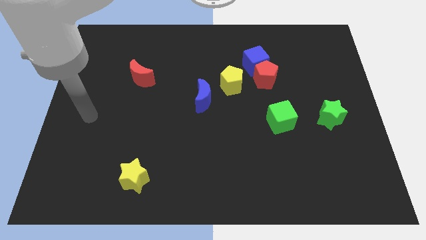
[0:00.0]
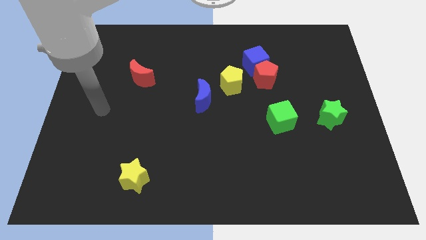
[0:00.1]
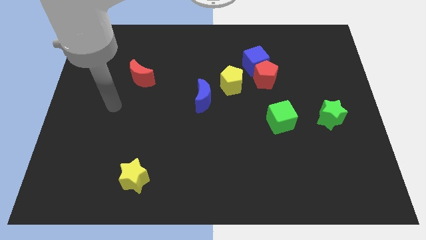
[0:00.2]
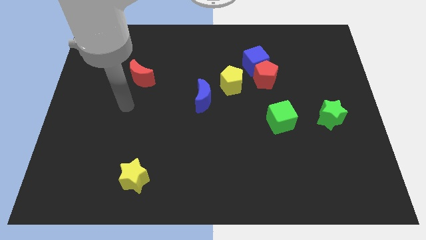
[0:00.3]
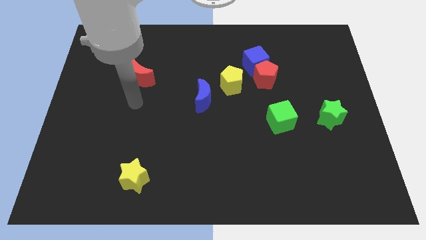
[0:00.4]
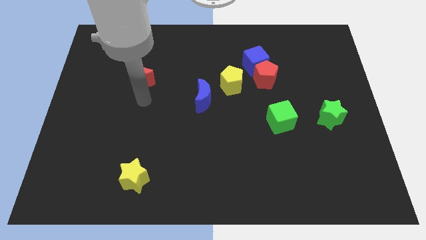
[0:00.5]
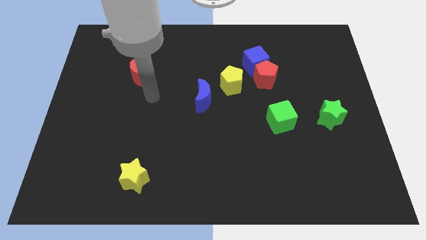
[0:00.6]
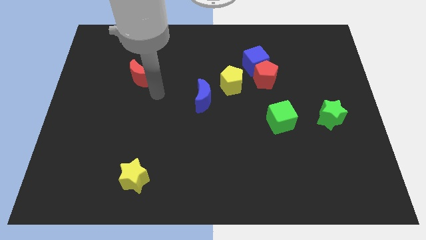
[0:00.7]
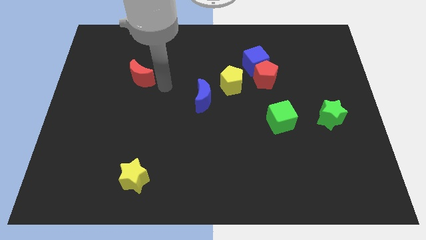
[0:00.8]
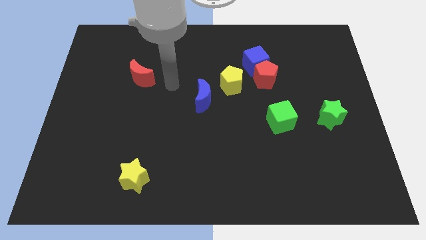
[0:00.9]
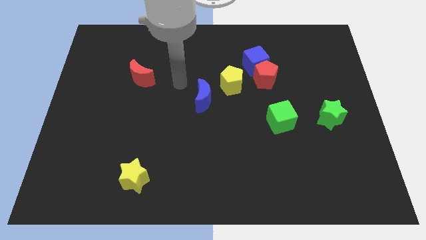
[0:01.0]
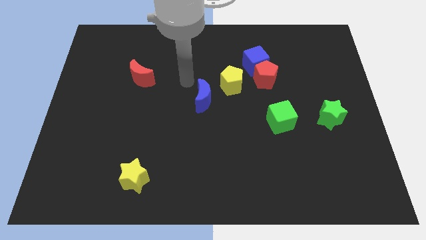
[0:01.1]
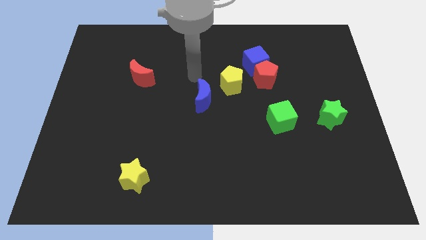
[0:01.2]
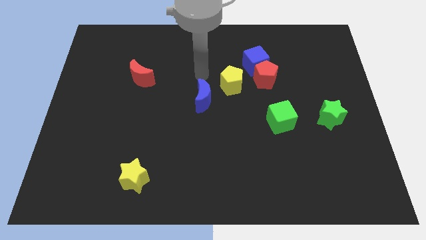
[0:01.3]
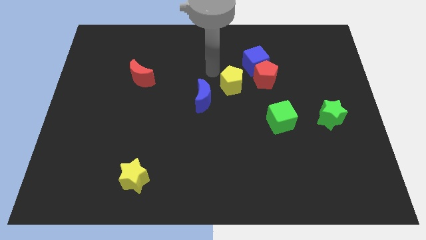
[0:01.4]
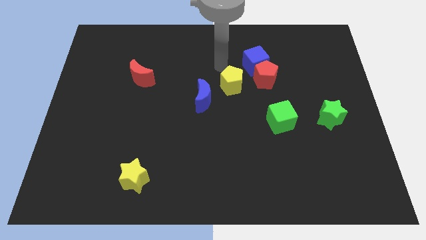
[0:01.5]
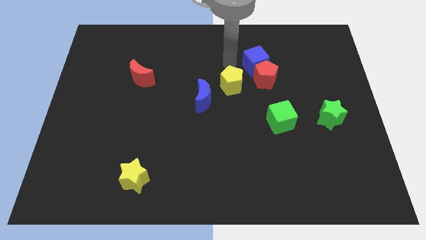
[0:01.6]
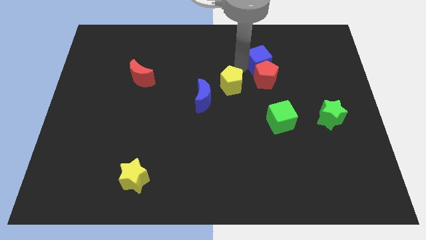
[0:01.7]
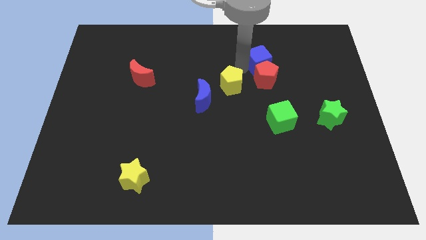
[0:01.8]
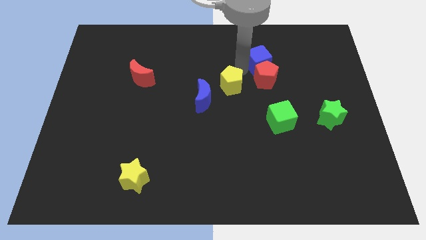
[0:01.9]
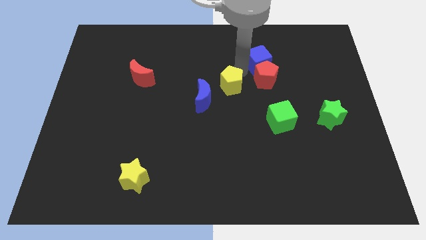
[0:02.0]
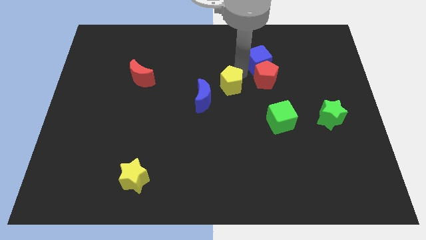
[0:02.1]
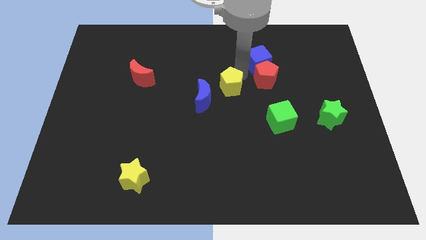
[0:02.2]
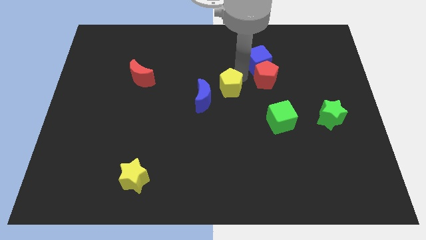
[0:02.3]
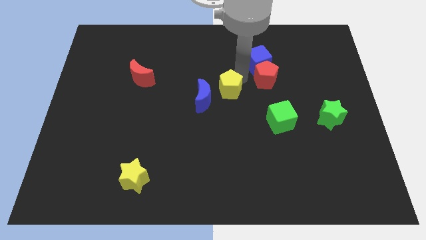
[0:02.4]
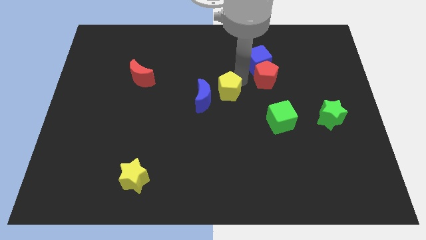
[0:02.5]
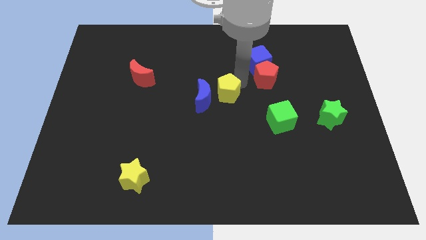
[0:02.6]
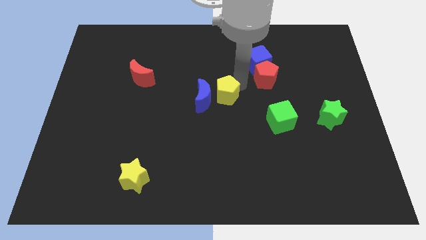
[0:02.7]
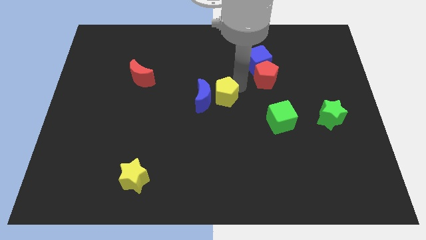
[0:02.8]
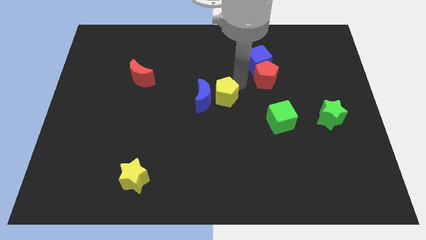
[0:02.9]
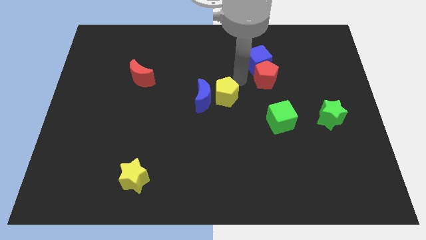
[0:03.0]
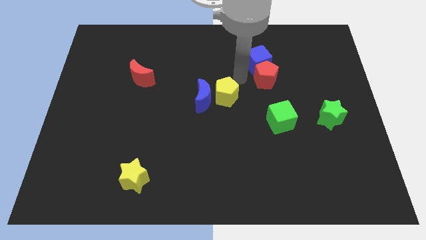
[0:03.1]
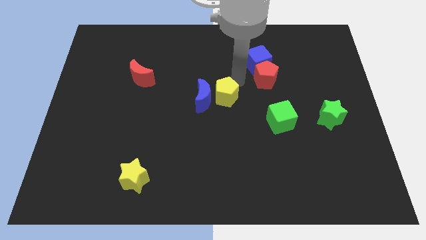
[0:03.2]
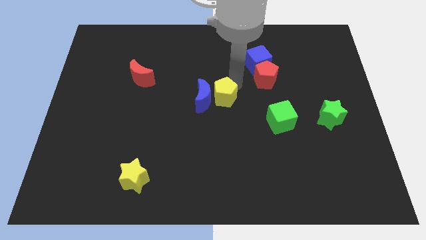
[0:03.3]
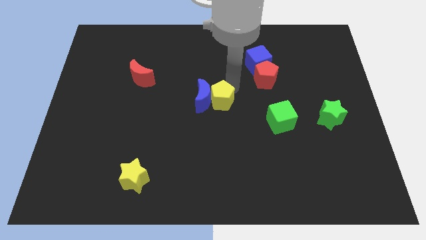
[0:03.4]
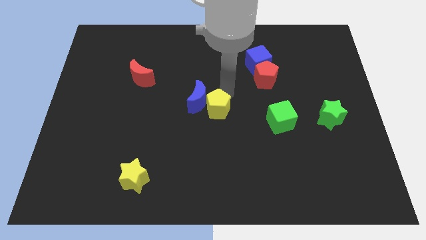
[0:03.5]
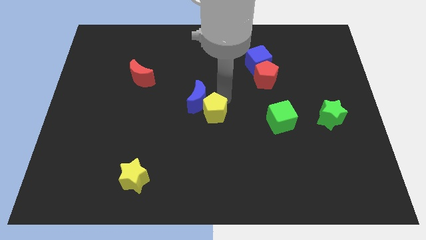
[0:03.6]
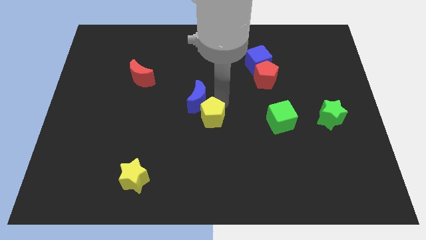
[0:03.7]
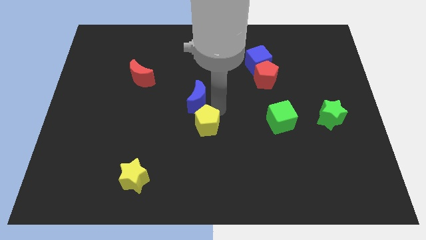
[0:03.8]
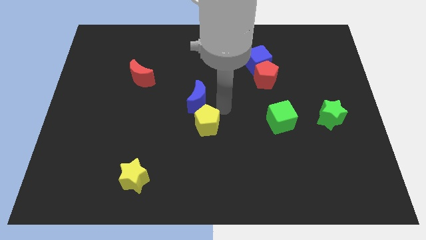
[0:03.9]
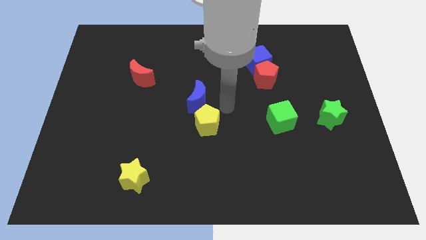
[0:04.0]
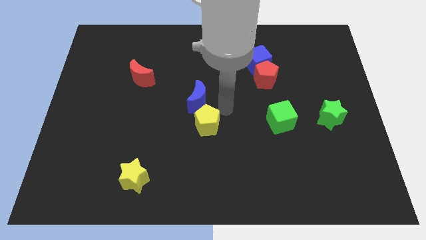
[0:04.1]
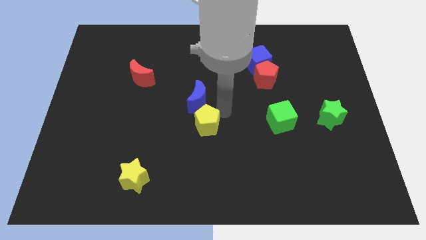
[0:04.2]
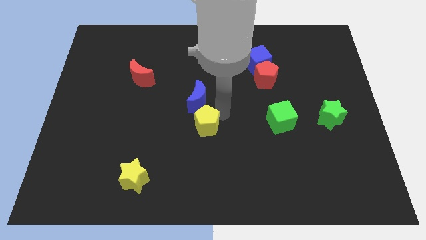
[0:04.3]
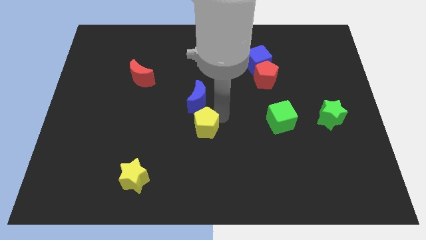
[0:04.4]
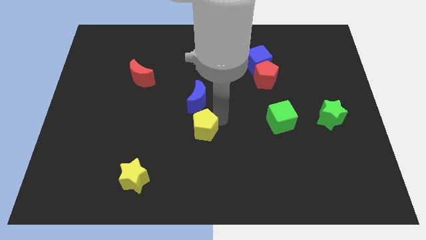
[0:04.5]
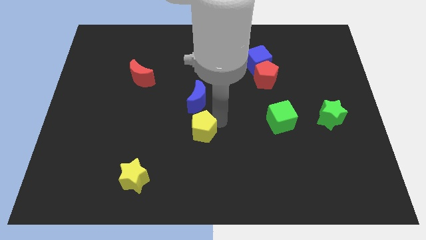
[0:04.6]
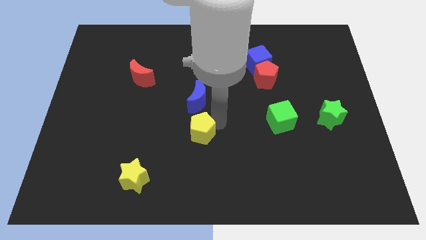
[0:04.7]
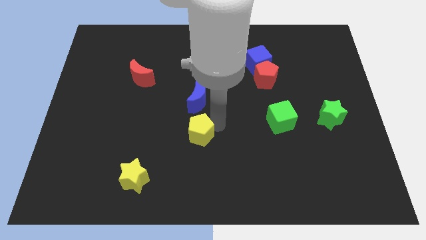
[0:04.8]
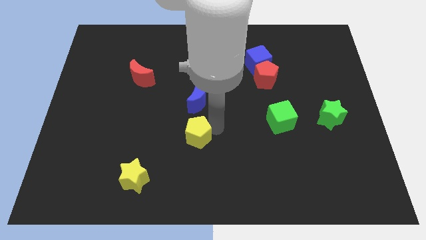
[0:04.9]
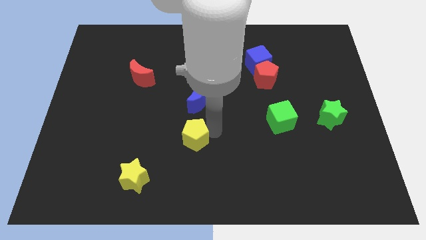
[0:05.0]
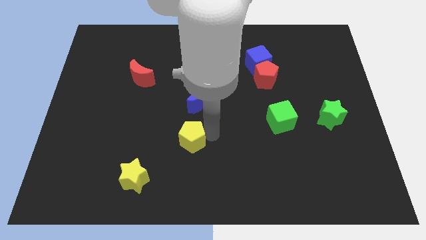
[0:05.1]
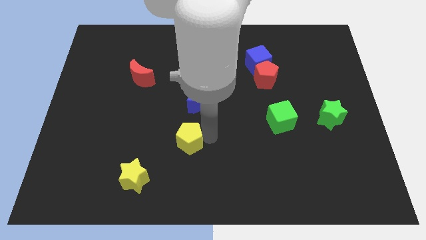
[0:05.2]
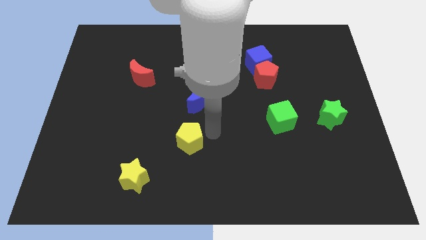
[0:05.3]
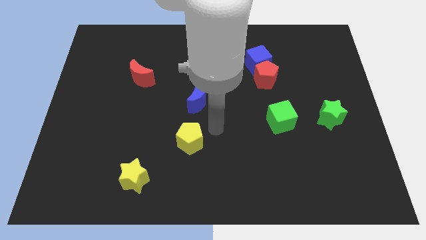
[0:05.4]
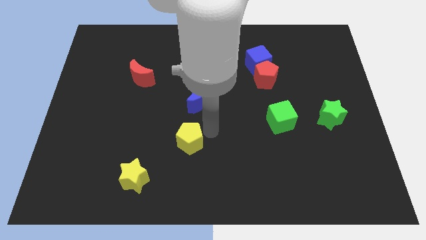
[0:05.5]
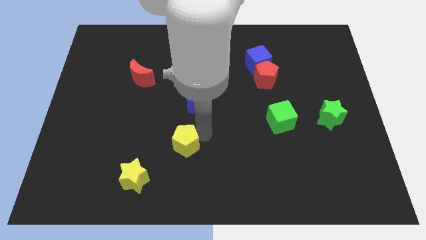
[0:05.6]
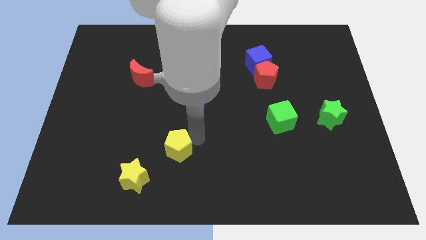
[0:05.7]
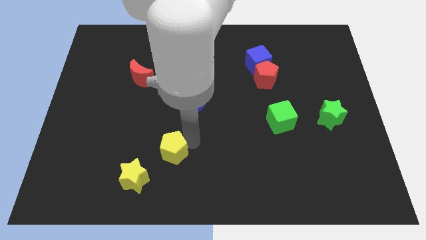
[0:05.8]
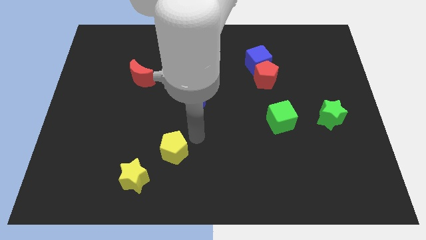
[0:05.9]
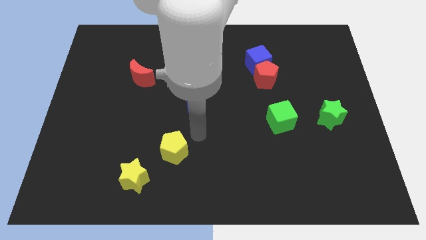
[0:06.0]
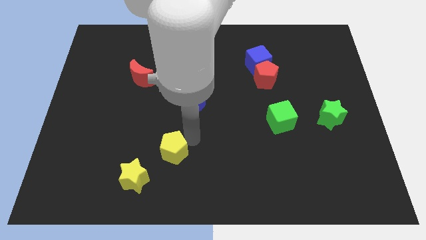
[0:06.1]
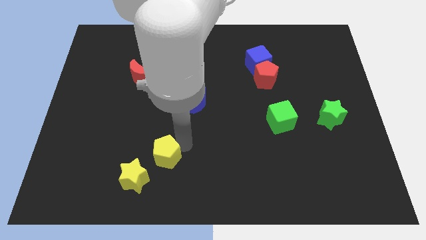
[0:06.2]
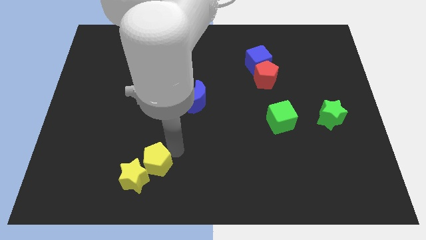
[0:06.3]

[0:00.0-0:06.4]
push the yellow pentagon next to the yellow star

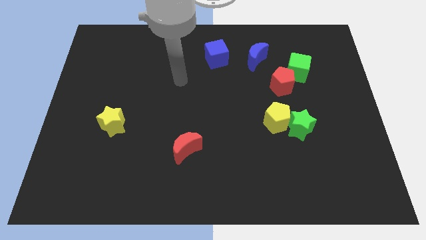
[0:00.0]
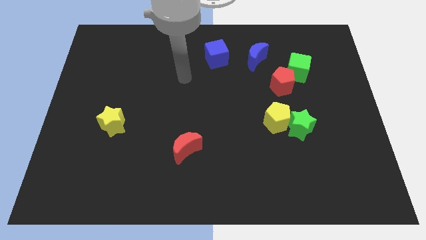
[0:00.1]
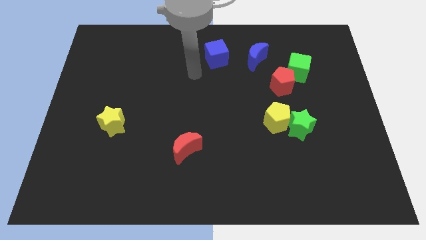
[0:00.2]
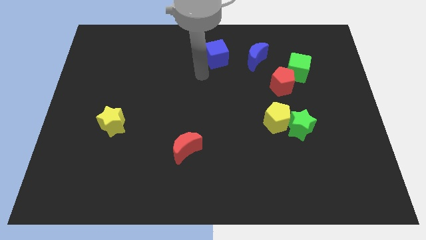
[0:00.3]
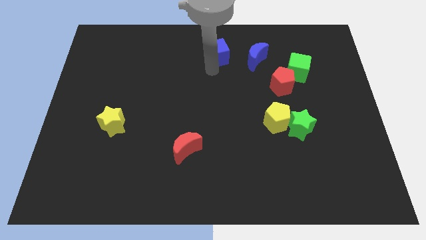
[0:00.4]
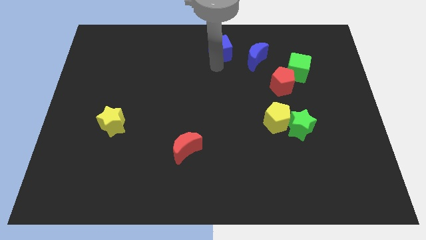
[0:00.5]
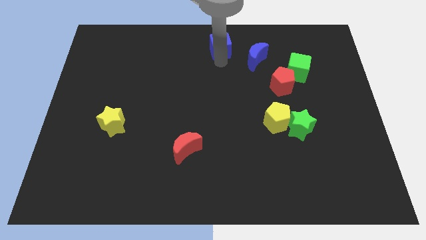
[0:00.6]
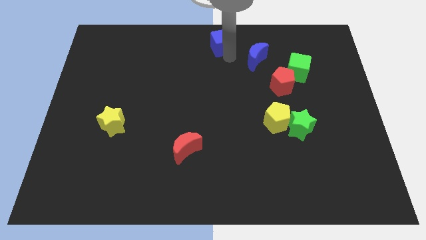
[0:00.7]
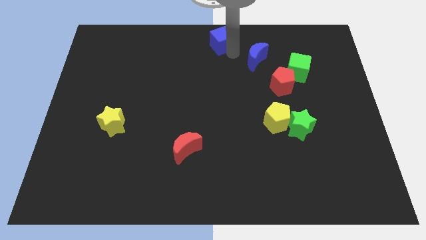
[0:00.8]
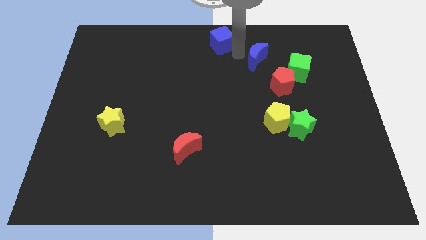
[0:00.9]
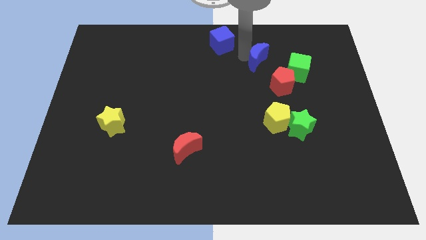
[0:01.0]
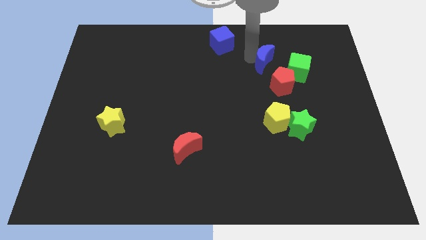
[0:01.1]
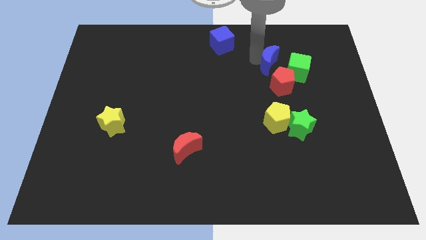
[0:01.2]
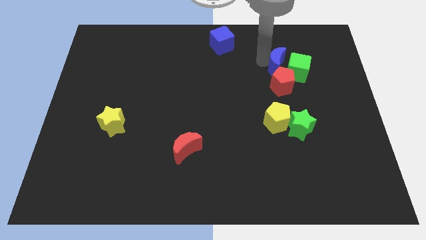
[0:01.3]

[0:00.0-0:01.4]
push the blue moon next to the green cube

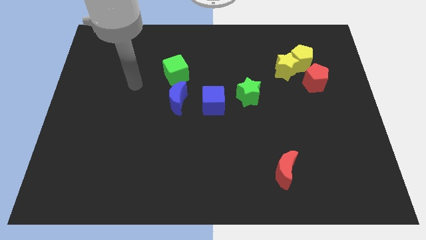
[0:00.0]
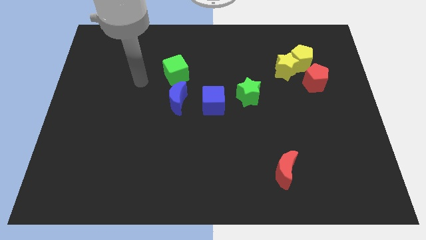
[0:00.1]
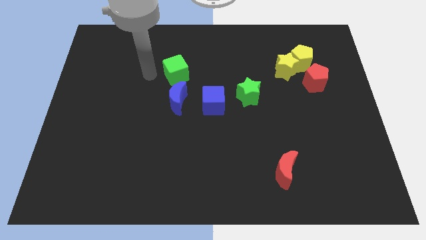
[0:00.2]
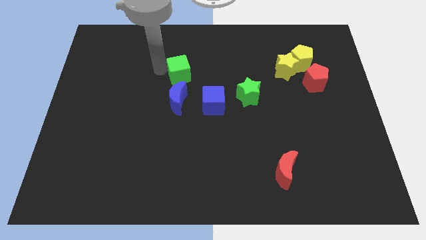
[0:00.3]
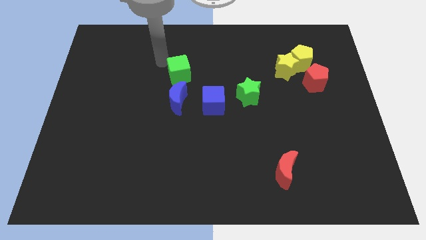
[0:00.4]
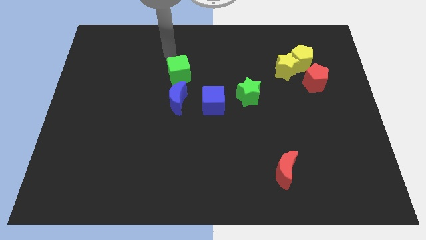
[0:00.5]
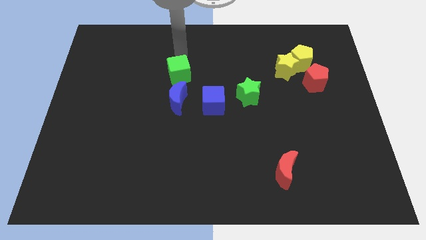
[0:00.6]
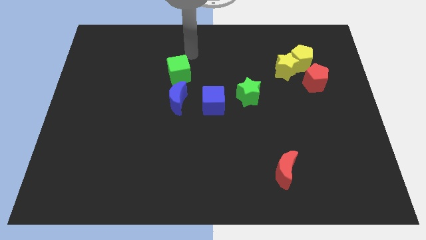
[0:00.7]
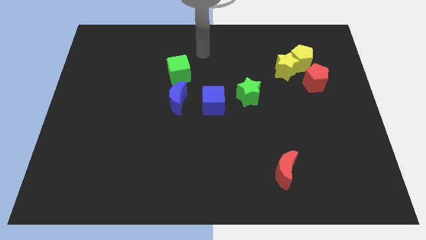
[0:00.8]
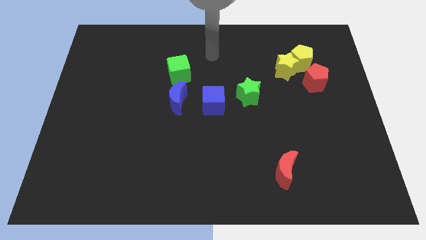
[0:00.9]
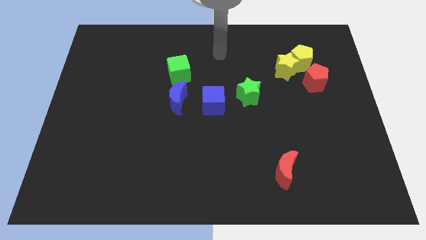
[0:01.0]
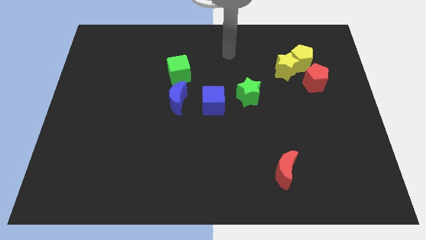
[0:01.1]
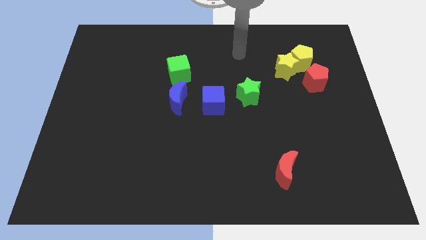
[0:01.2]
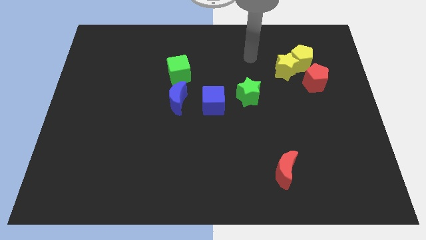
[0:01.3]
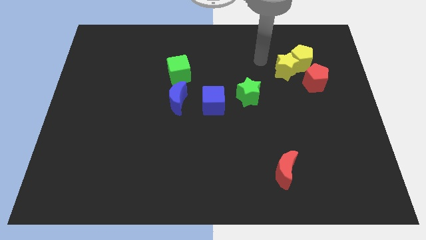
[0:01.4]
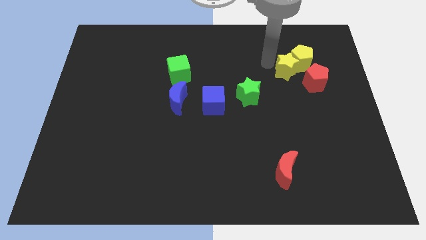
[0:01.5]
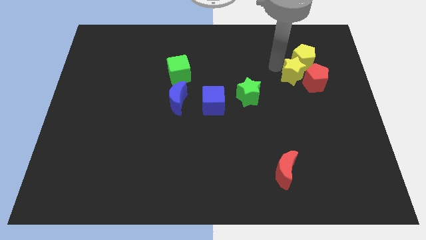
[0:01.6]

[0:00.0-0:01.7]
put the yellow star next to the red pentagon
